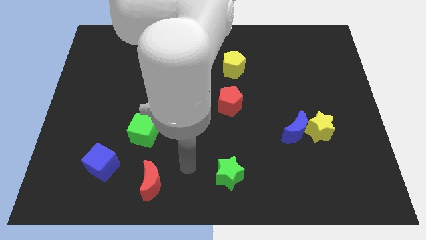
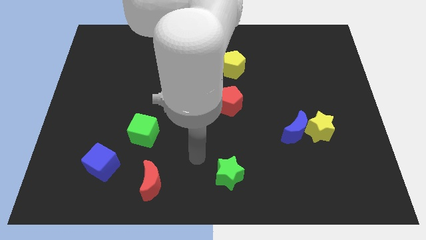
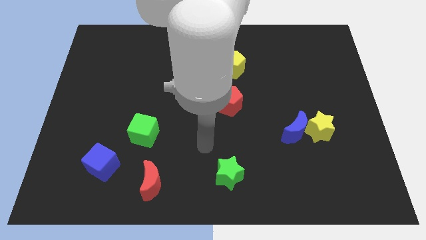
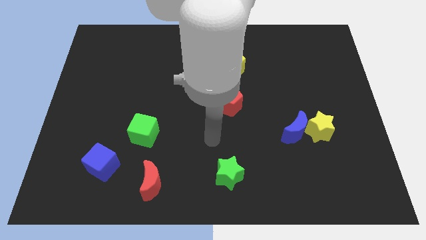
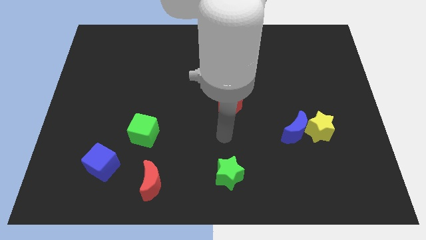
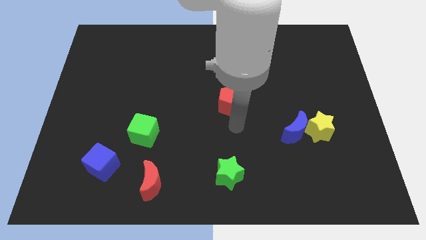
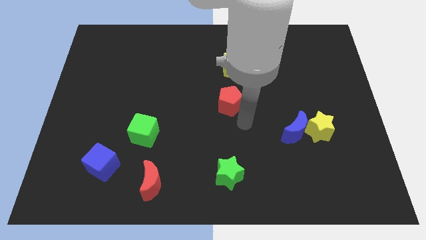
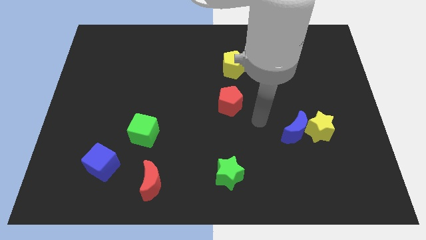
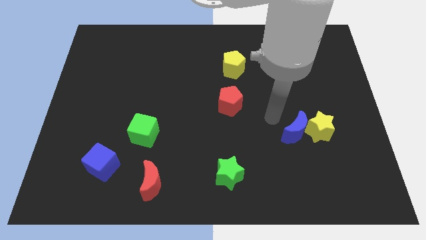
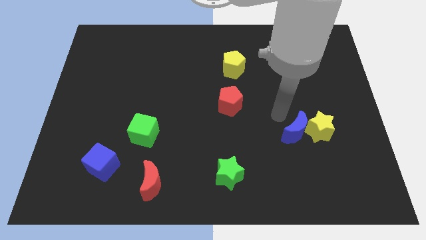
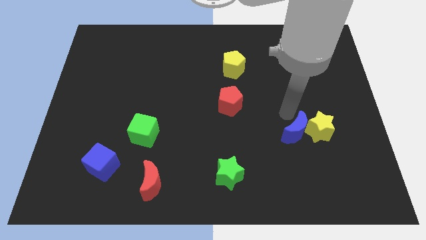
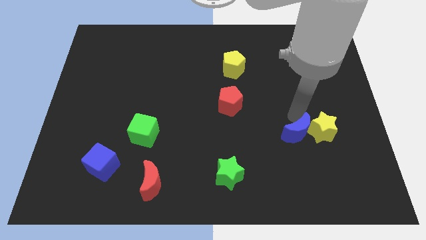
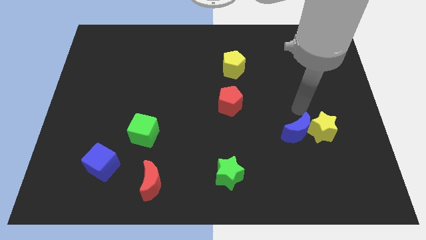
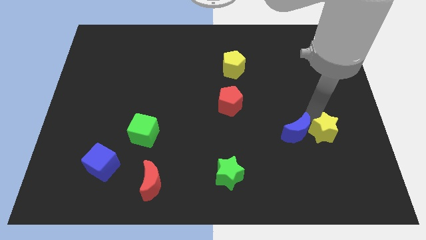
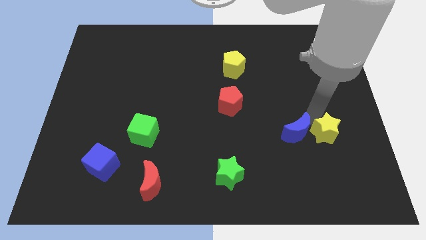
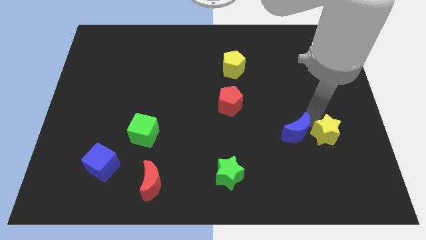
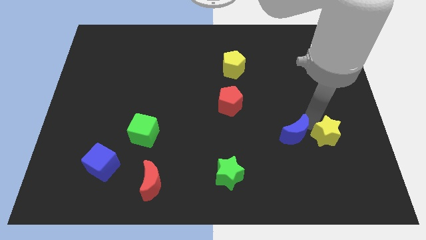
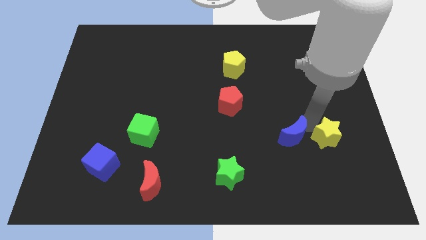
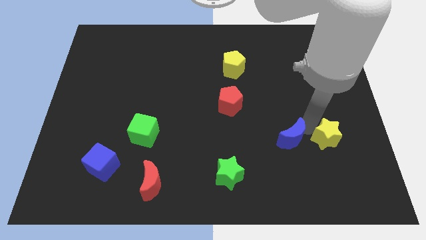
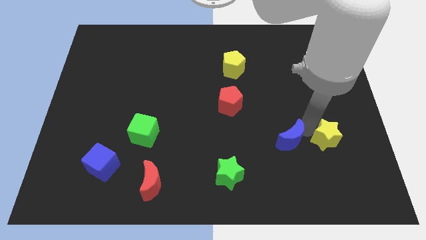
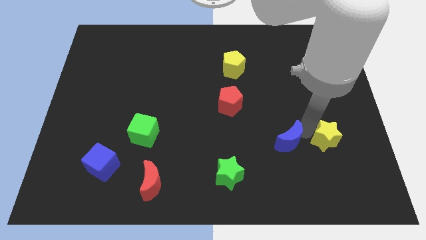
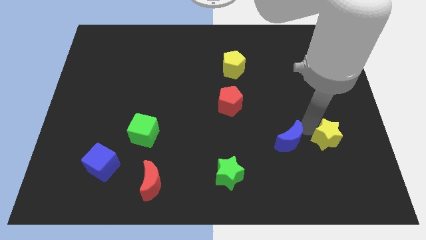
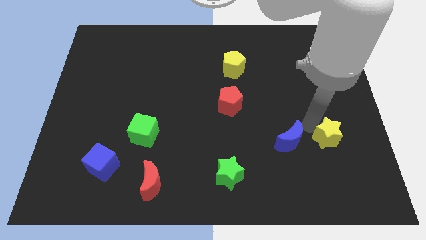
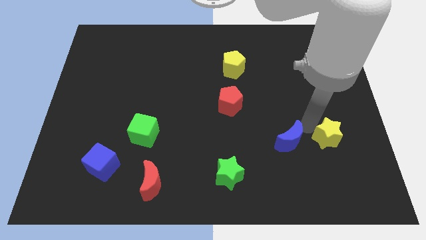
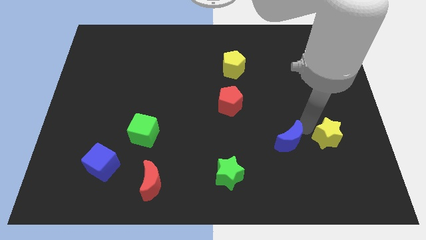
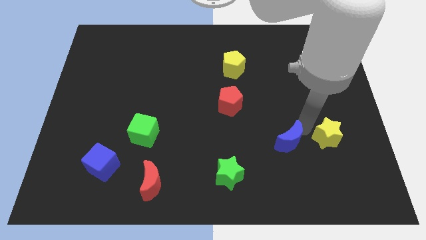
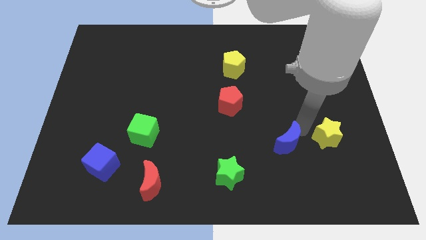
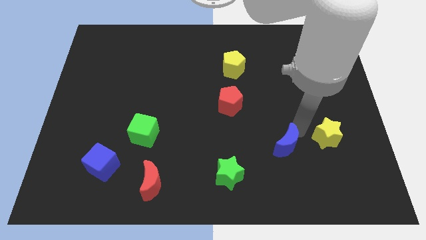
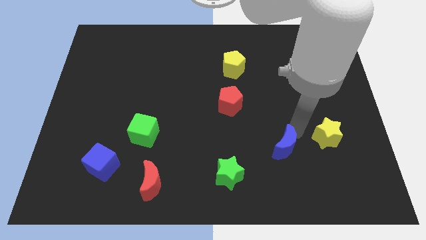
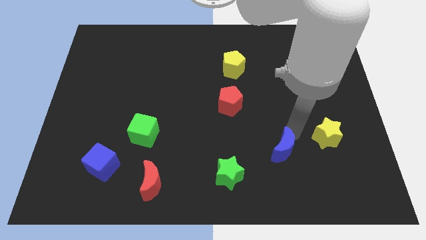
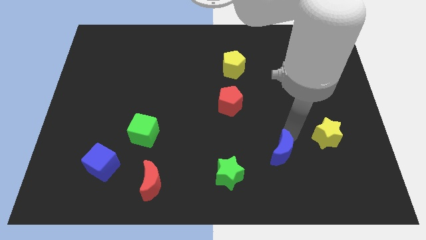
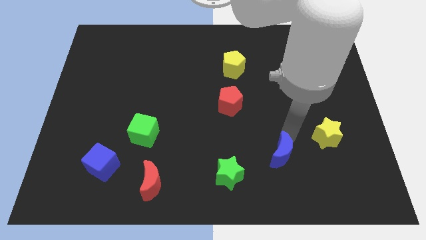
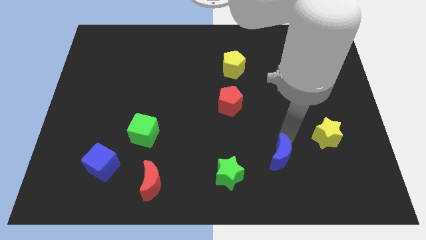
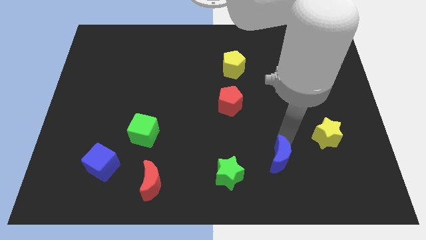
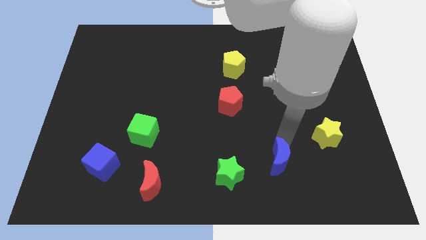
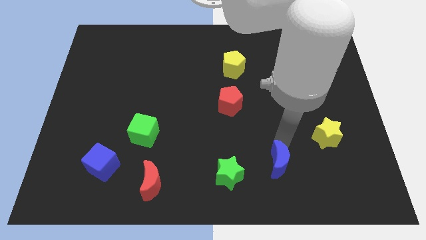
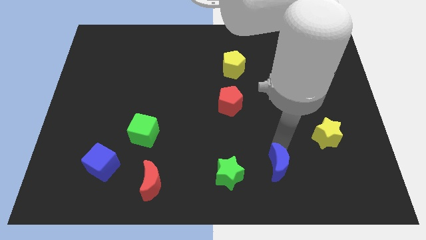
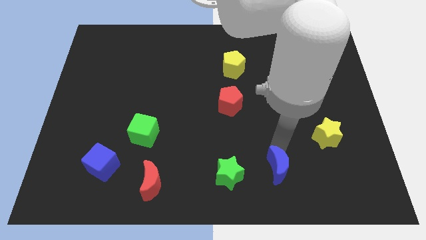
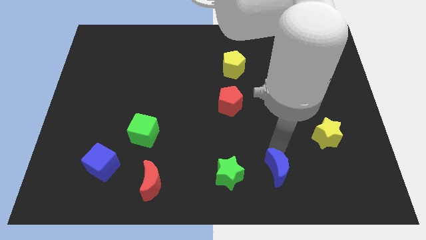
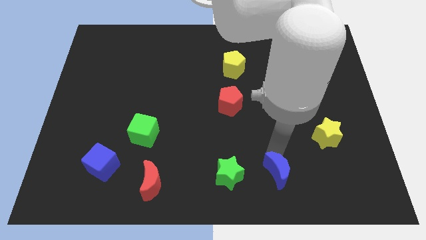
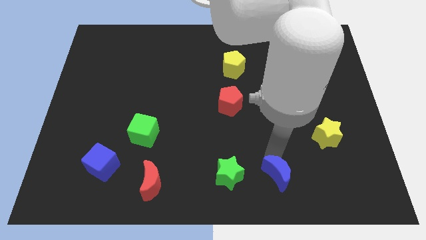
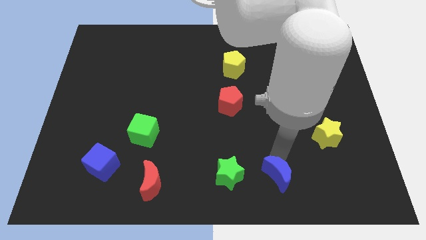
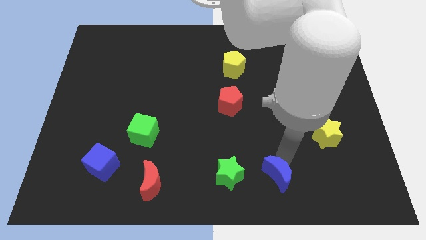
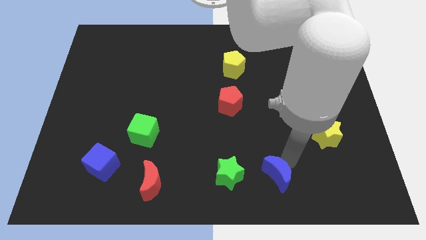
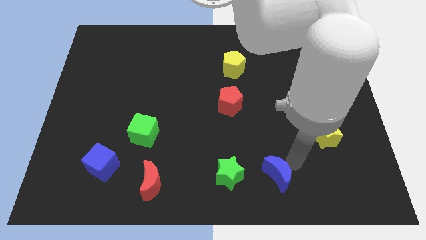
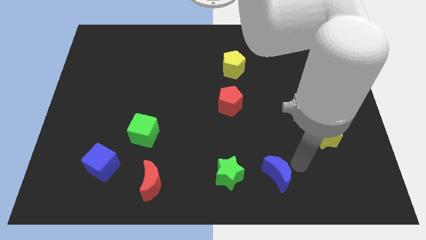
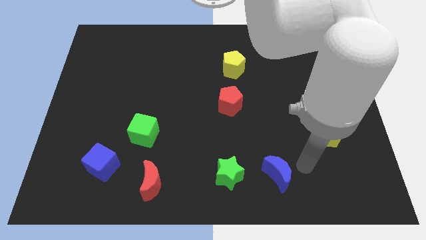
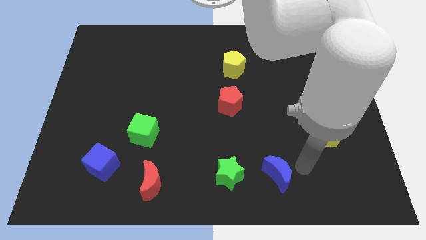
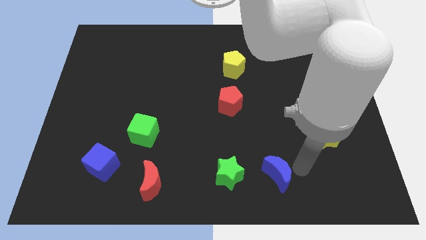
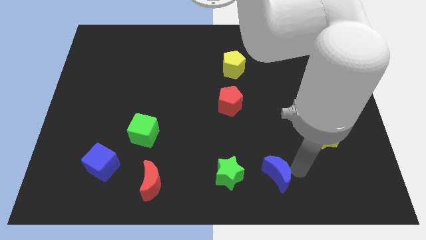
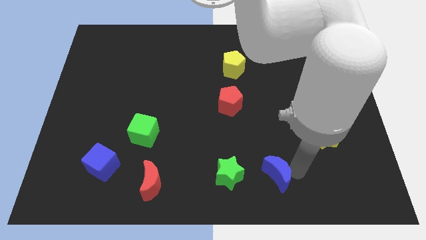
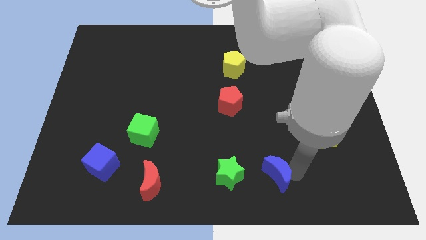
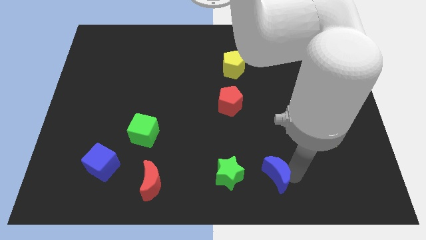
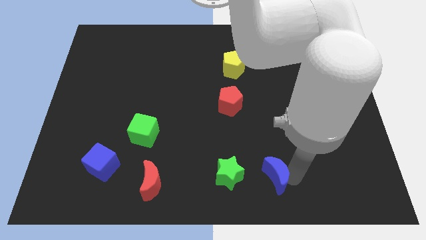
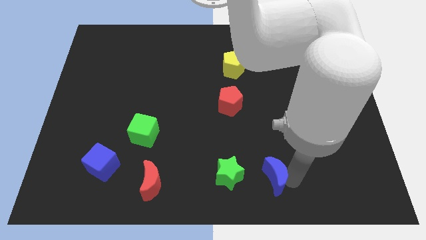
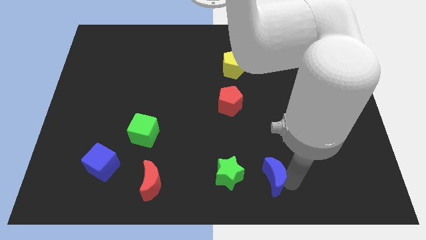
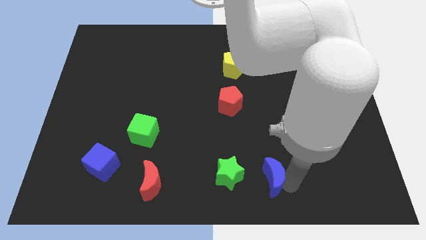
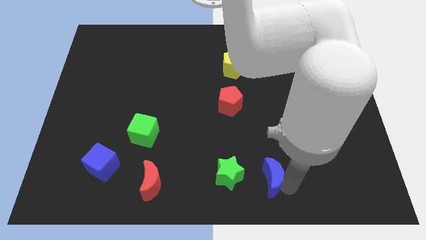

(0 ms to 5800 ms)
push the blue moon to the bottom side
